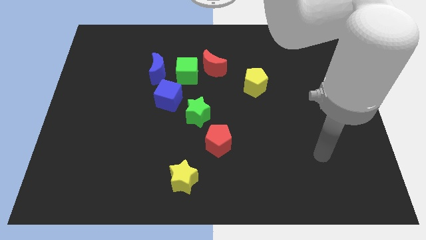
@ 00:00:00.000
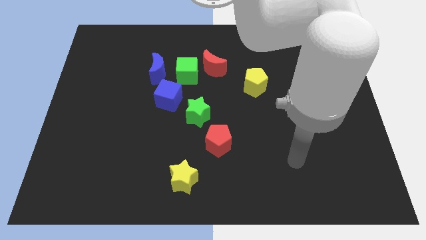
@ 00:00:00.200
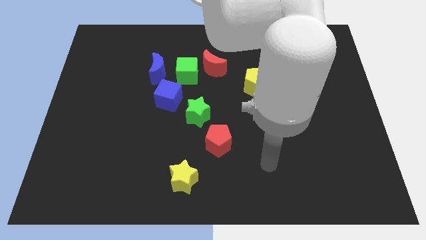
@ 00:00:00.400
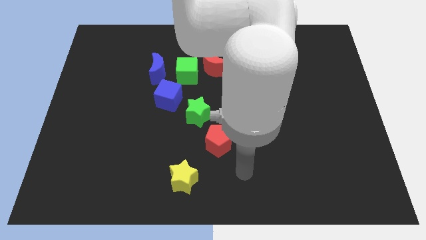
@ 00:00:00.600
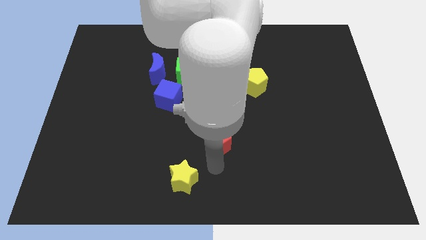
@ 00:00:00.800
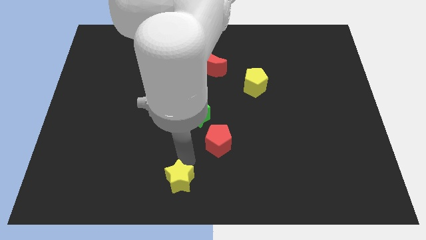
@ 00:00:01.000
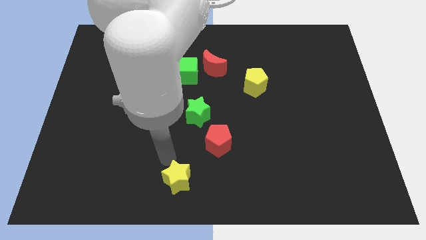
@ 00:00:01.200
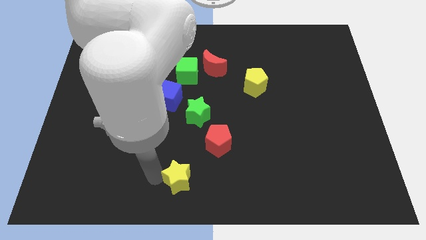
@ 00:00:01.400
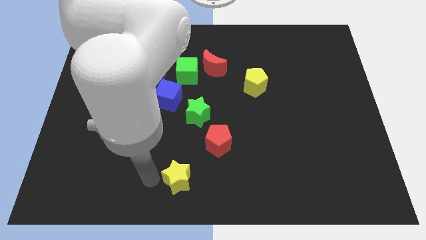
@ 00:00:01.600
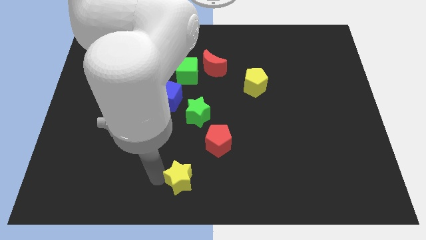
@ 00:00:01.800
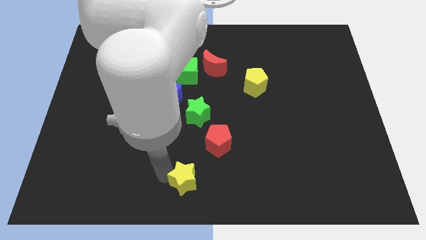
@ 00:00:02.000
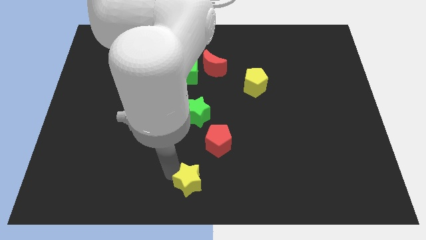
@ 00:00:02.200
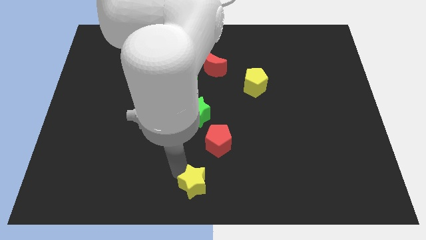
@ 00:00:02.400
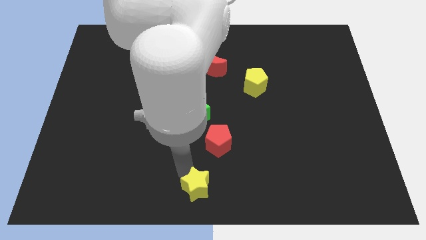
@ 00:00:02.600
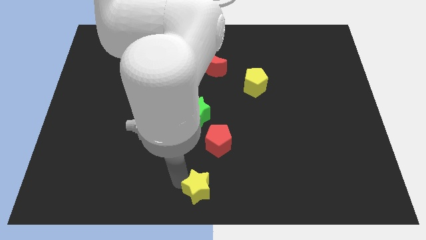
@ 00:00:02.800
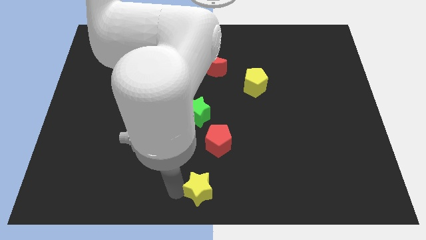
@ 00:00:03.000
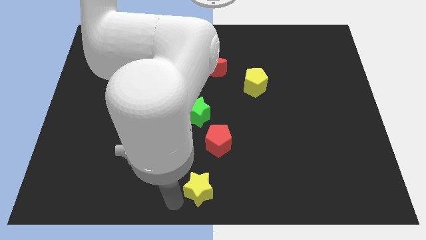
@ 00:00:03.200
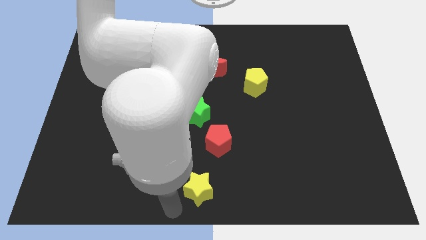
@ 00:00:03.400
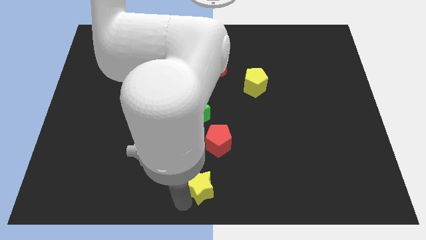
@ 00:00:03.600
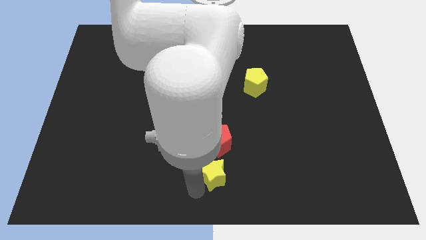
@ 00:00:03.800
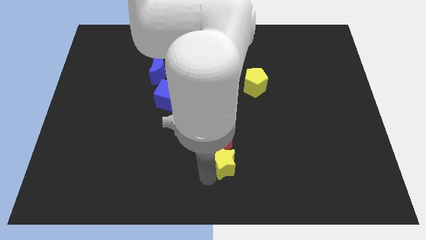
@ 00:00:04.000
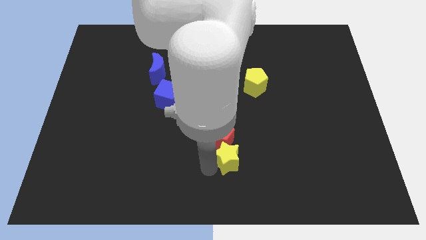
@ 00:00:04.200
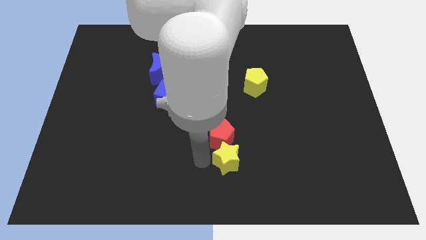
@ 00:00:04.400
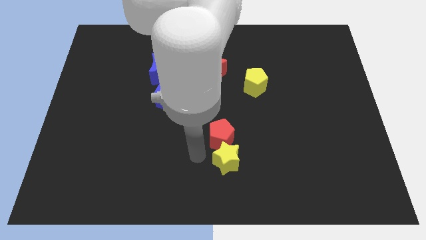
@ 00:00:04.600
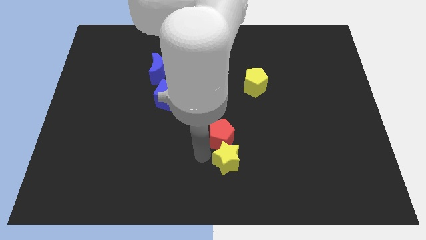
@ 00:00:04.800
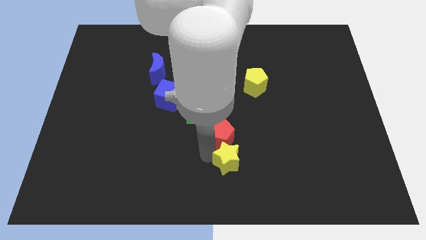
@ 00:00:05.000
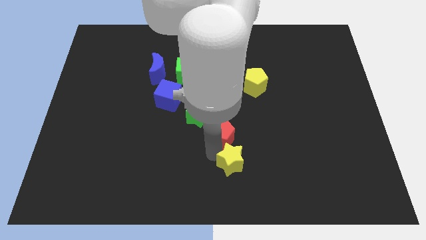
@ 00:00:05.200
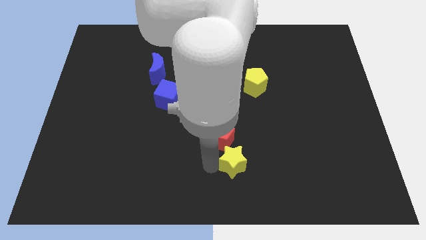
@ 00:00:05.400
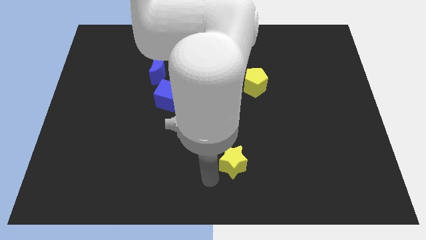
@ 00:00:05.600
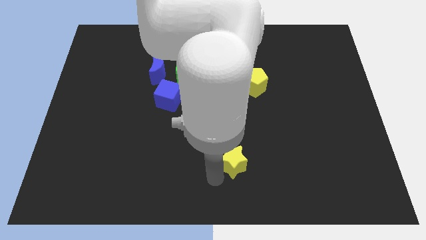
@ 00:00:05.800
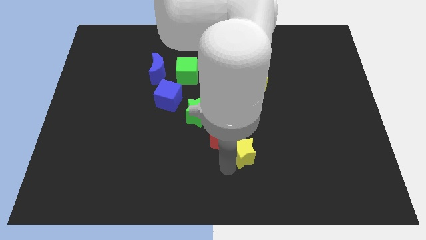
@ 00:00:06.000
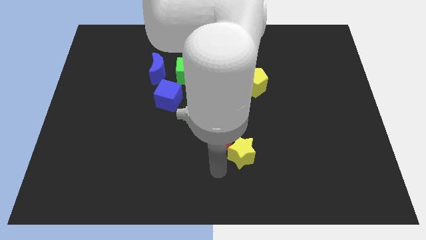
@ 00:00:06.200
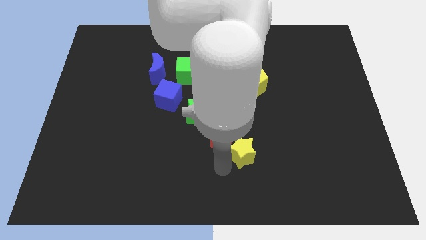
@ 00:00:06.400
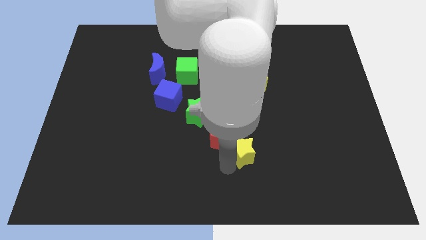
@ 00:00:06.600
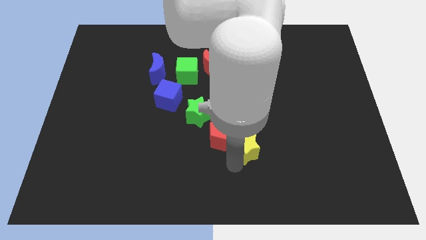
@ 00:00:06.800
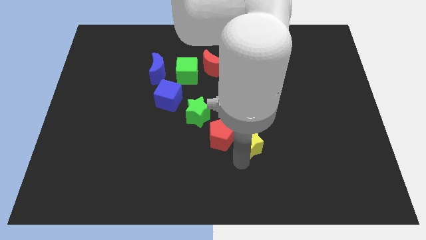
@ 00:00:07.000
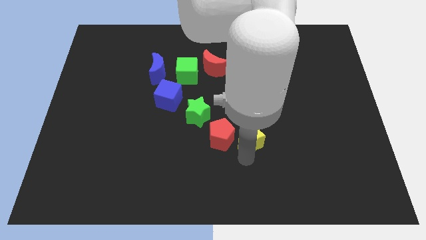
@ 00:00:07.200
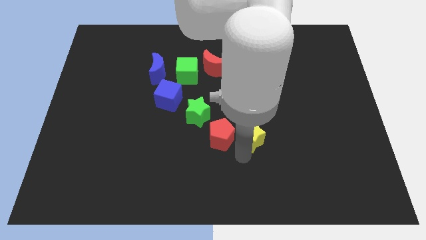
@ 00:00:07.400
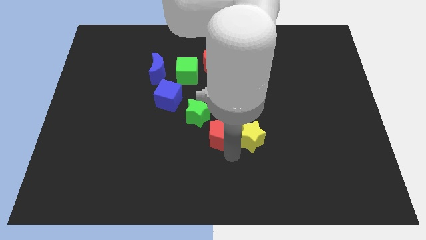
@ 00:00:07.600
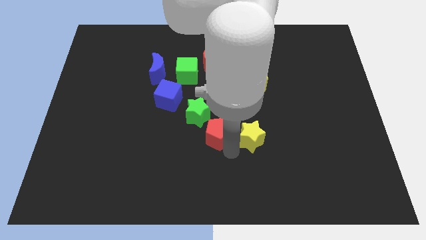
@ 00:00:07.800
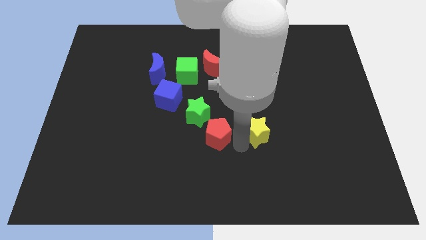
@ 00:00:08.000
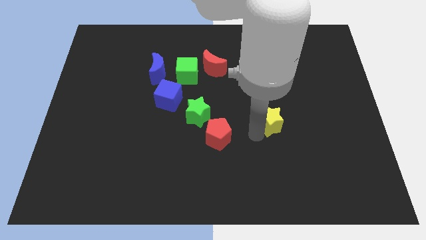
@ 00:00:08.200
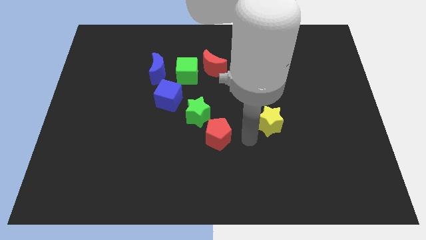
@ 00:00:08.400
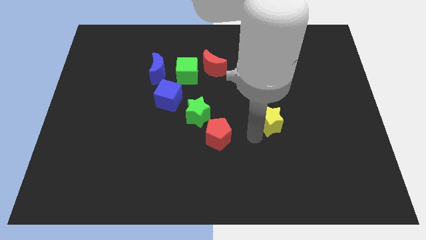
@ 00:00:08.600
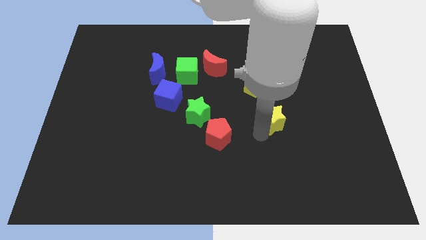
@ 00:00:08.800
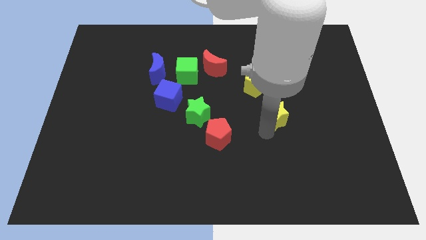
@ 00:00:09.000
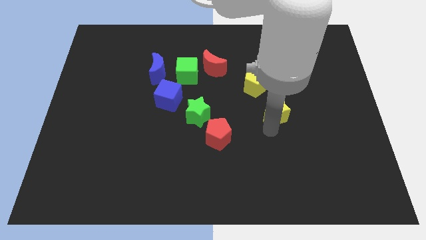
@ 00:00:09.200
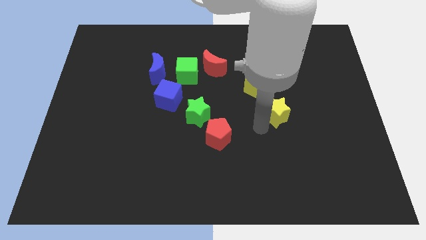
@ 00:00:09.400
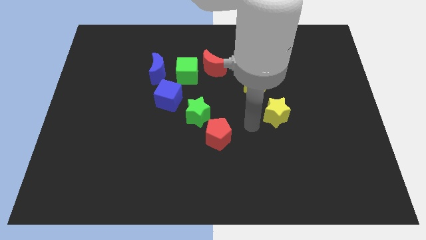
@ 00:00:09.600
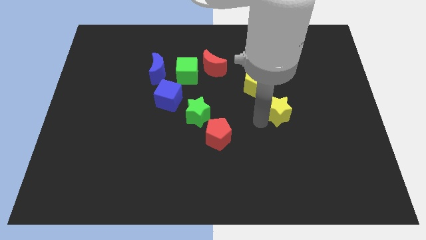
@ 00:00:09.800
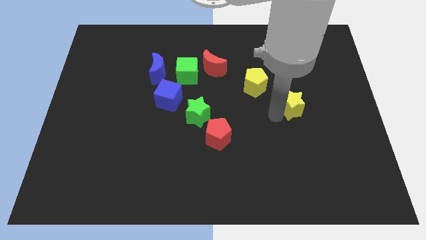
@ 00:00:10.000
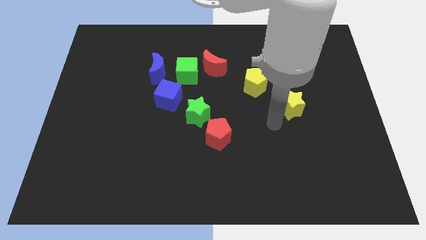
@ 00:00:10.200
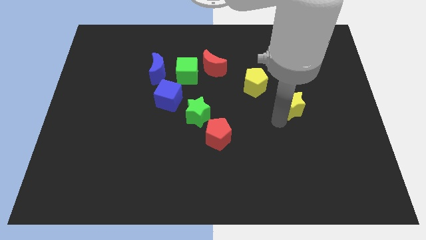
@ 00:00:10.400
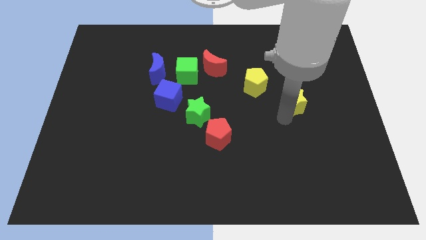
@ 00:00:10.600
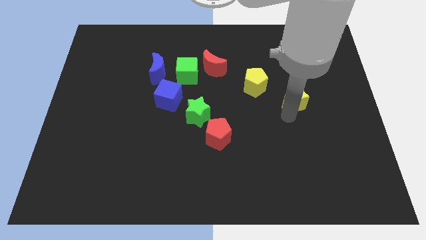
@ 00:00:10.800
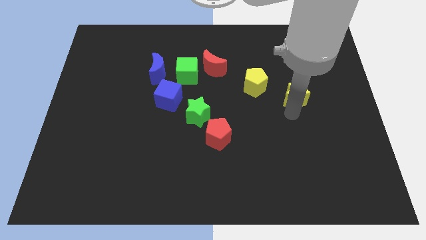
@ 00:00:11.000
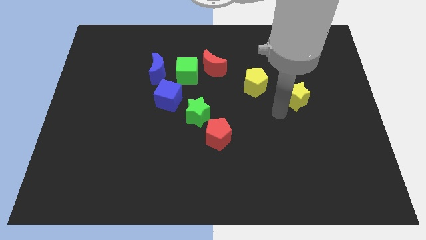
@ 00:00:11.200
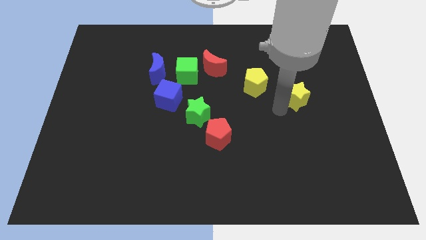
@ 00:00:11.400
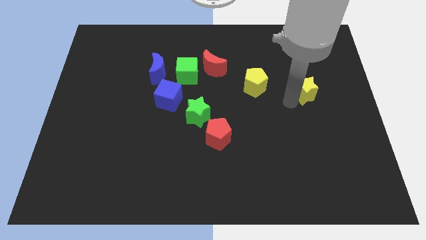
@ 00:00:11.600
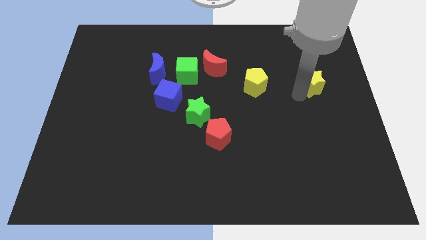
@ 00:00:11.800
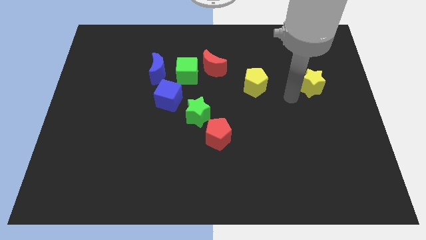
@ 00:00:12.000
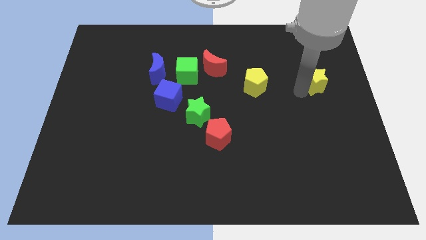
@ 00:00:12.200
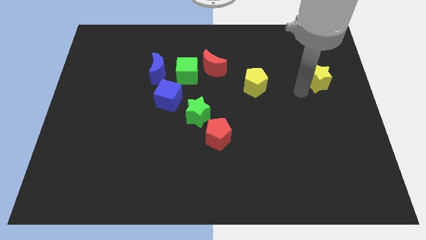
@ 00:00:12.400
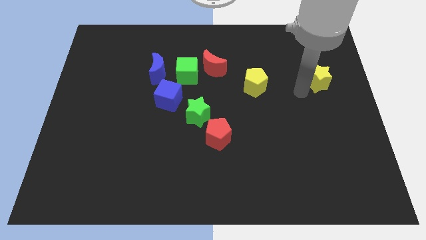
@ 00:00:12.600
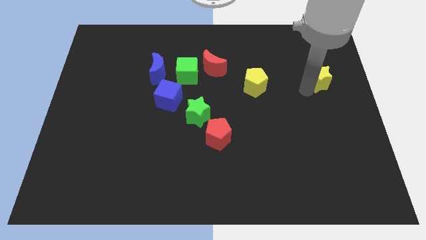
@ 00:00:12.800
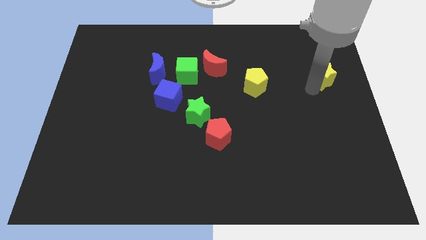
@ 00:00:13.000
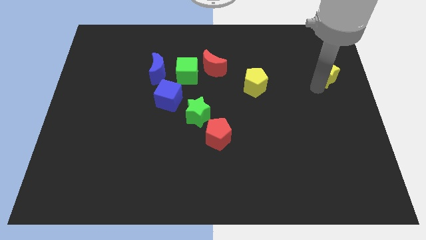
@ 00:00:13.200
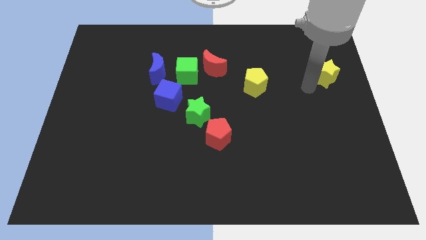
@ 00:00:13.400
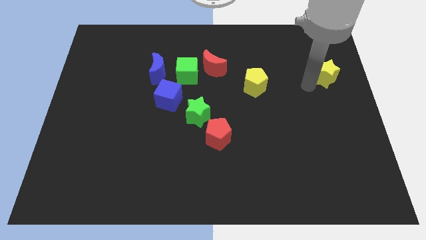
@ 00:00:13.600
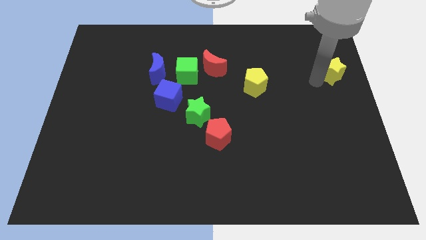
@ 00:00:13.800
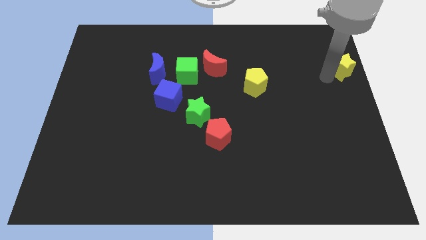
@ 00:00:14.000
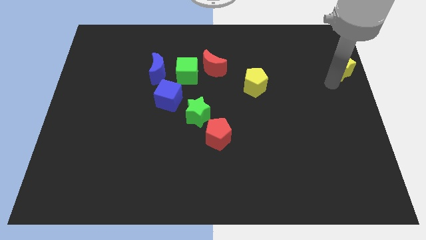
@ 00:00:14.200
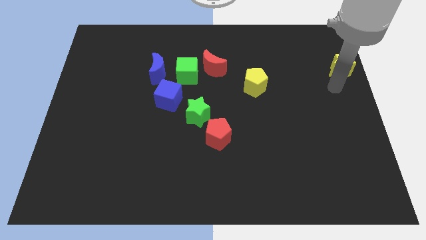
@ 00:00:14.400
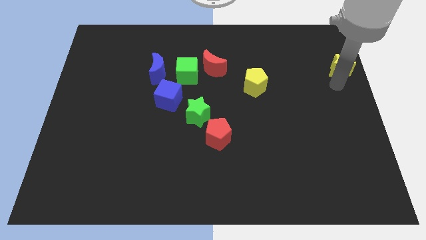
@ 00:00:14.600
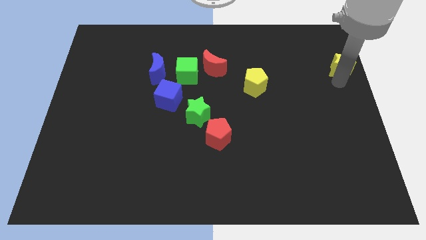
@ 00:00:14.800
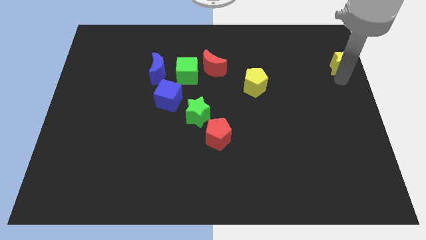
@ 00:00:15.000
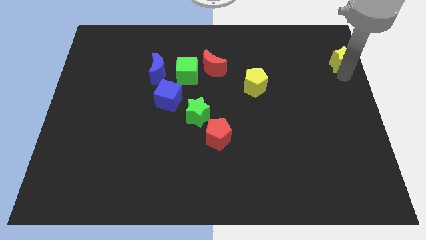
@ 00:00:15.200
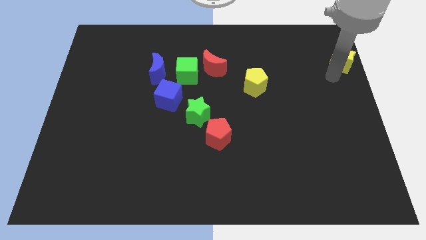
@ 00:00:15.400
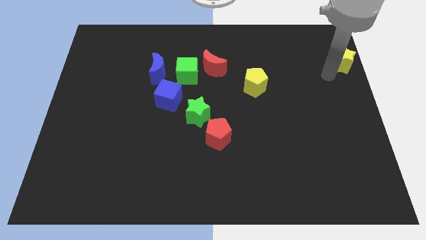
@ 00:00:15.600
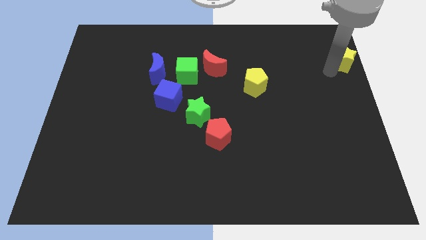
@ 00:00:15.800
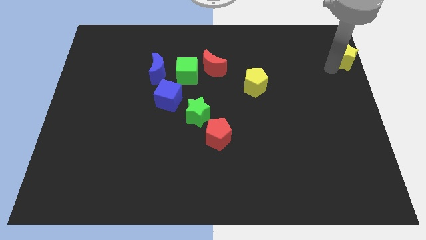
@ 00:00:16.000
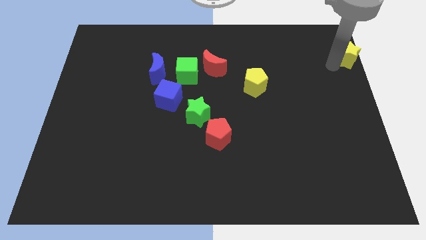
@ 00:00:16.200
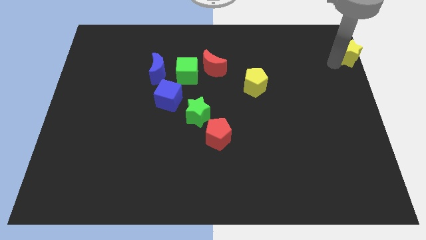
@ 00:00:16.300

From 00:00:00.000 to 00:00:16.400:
put the yellow star to the upper right corner
